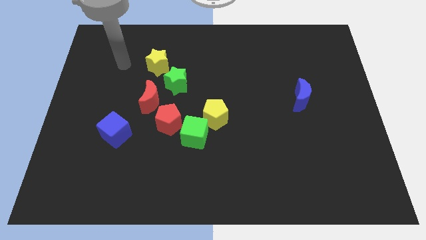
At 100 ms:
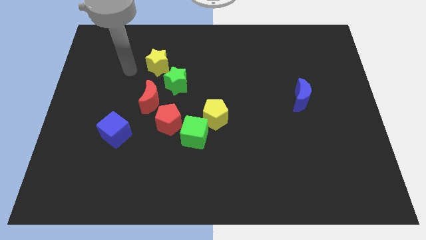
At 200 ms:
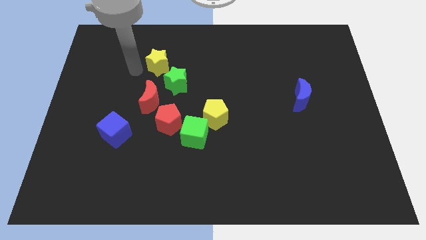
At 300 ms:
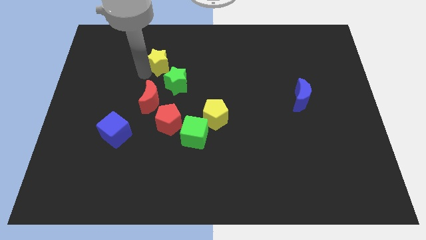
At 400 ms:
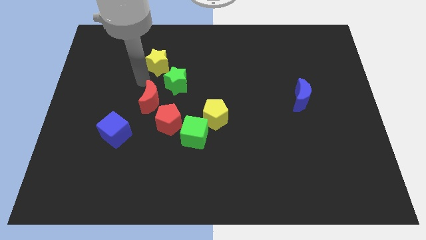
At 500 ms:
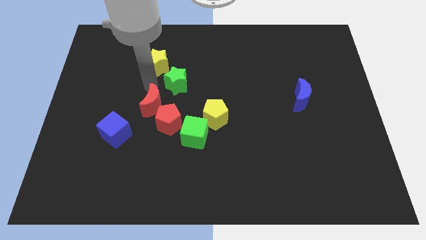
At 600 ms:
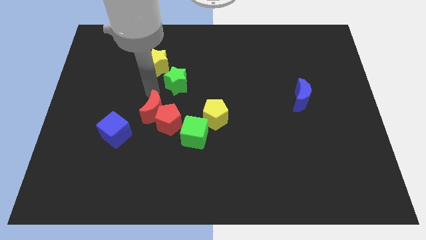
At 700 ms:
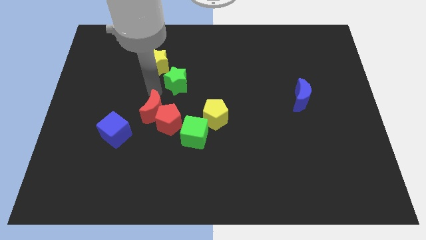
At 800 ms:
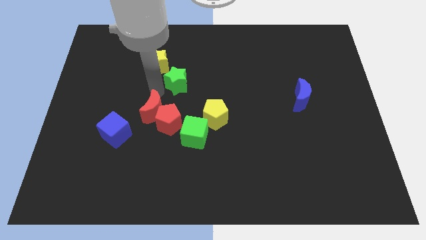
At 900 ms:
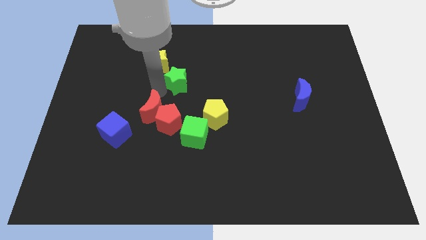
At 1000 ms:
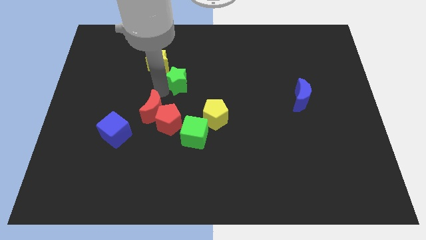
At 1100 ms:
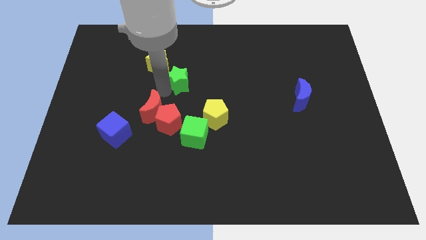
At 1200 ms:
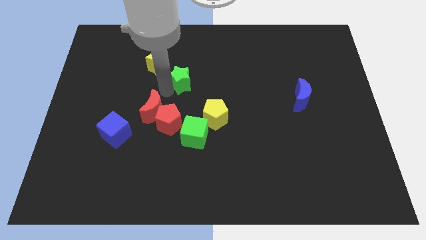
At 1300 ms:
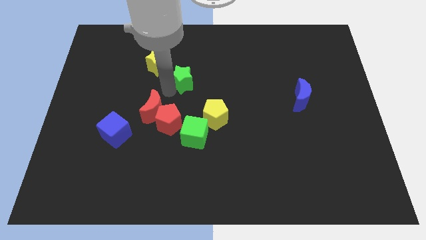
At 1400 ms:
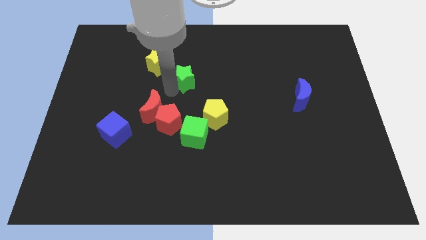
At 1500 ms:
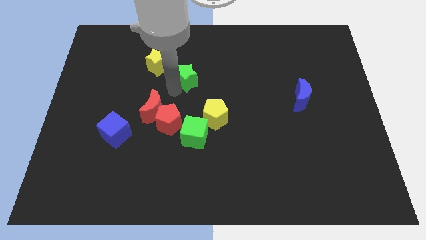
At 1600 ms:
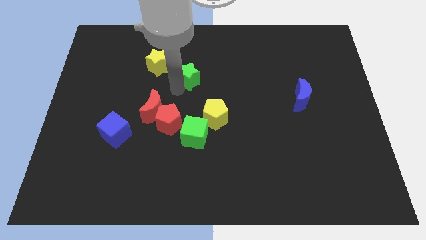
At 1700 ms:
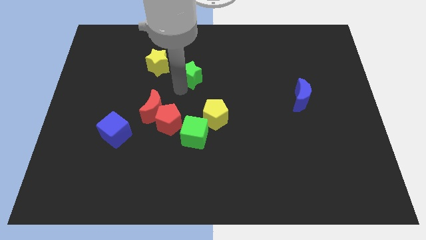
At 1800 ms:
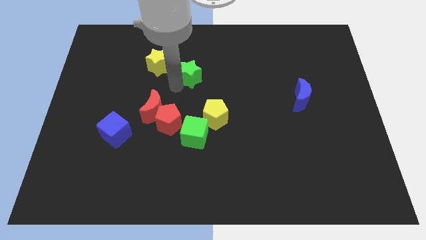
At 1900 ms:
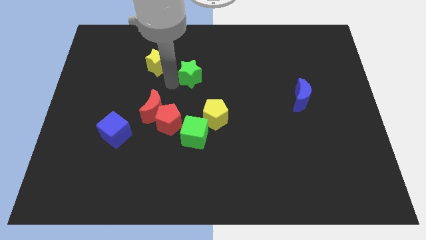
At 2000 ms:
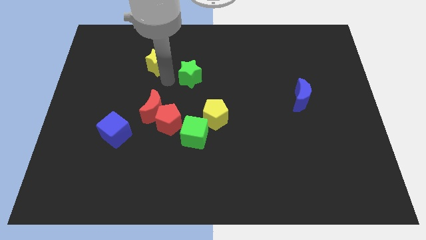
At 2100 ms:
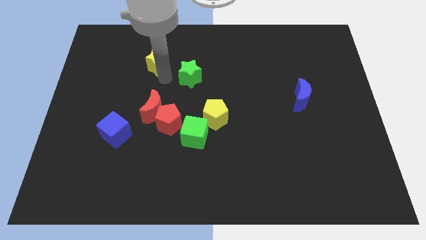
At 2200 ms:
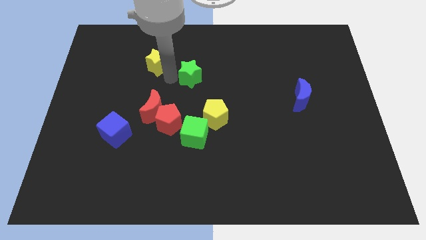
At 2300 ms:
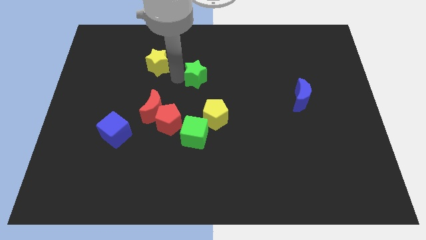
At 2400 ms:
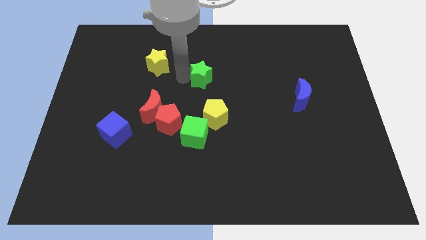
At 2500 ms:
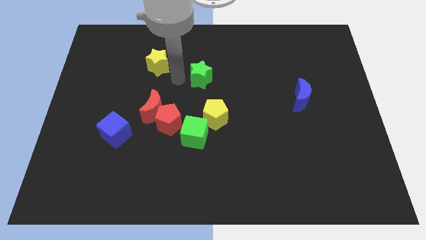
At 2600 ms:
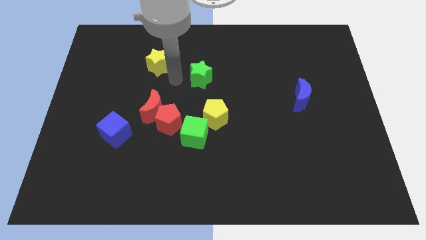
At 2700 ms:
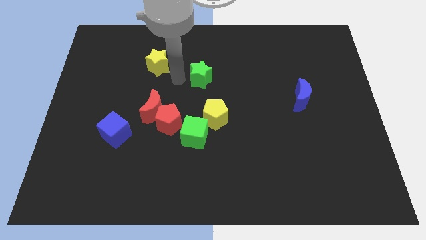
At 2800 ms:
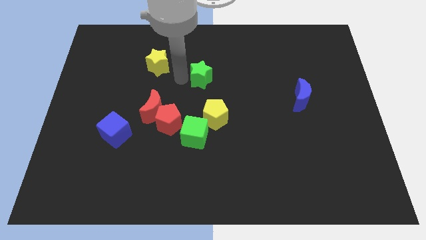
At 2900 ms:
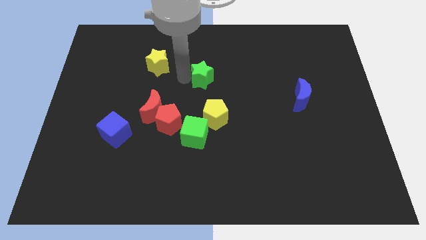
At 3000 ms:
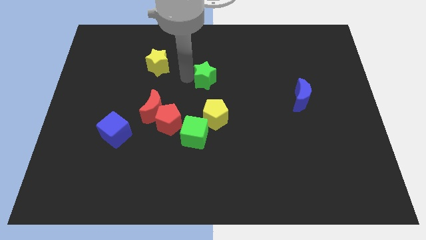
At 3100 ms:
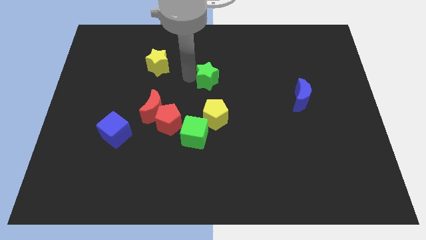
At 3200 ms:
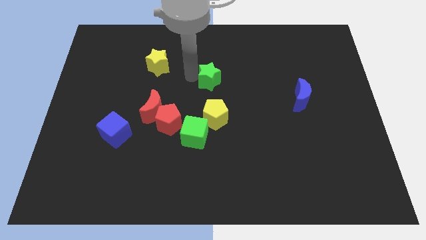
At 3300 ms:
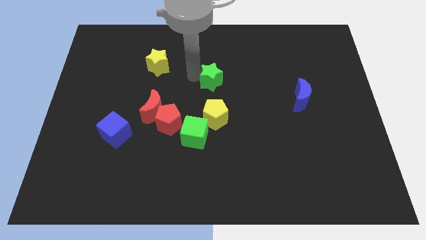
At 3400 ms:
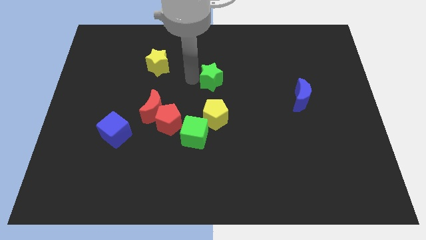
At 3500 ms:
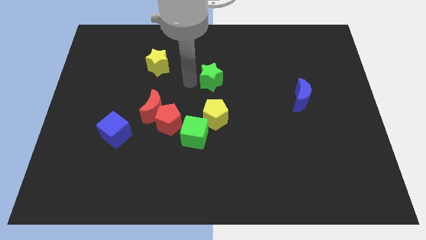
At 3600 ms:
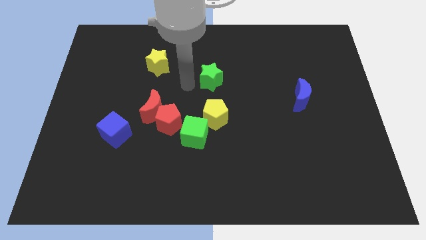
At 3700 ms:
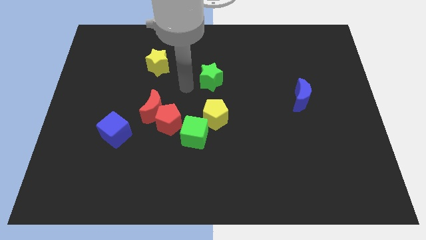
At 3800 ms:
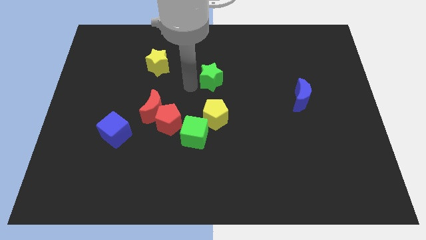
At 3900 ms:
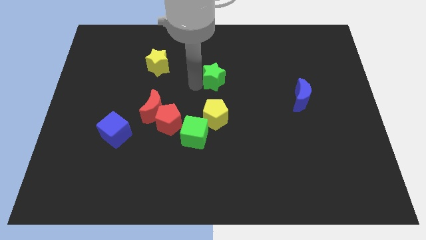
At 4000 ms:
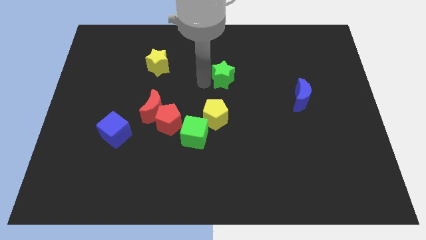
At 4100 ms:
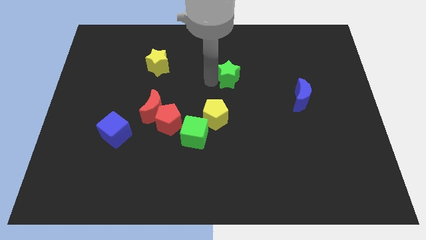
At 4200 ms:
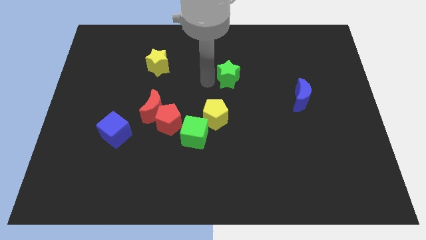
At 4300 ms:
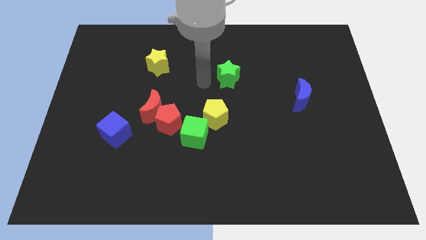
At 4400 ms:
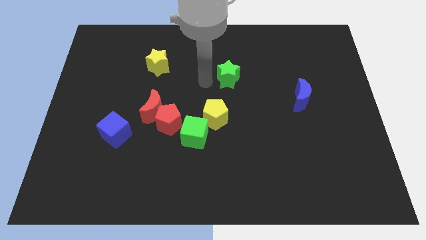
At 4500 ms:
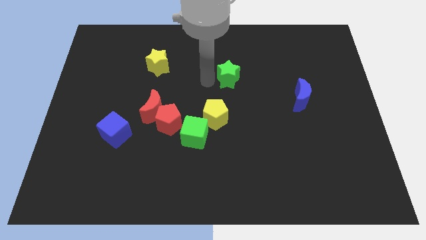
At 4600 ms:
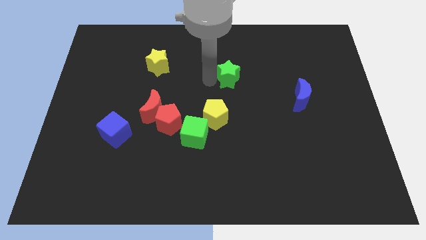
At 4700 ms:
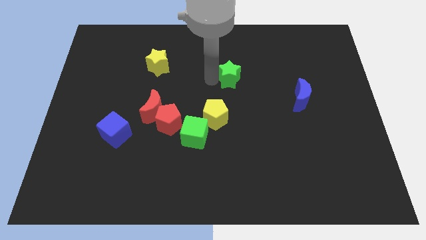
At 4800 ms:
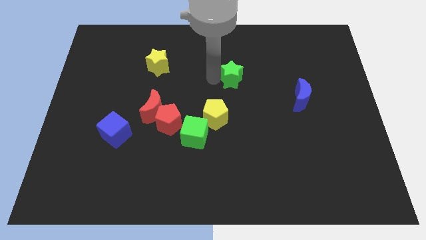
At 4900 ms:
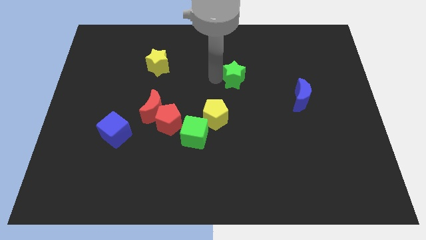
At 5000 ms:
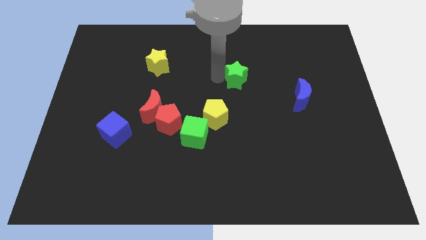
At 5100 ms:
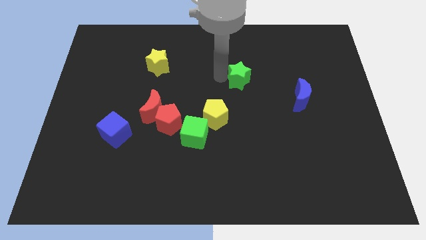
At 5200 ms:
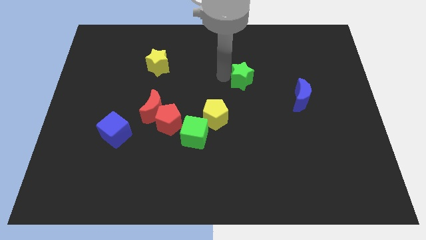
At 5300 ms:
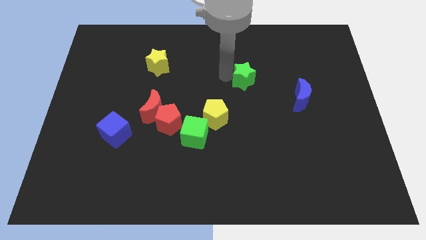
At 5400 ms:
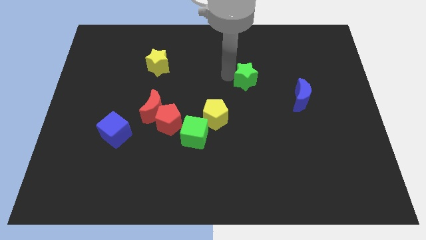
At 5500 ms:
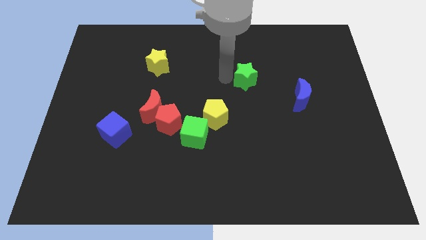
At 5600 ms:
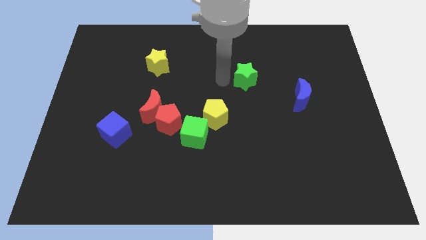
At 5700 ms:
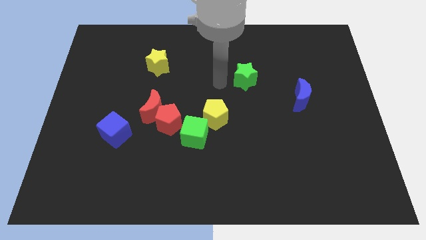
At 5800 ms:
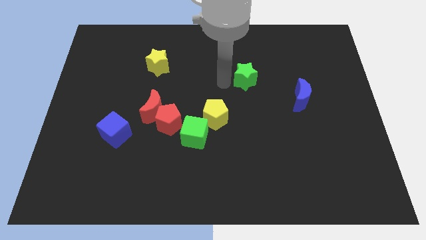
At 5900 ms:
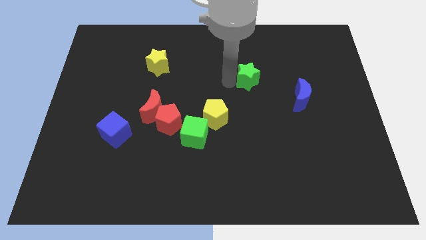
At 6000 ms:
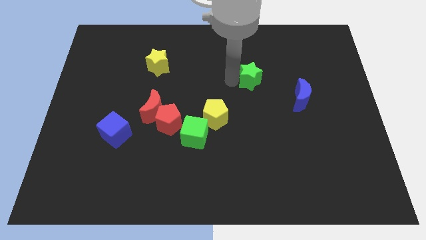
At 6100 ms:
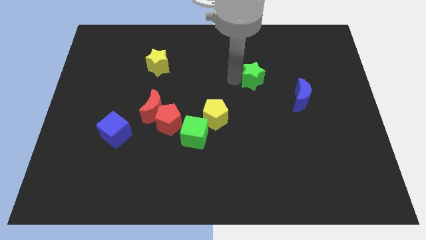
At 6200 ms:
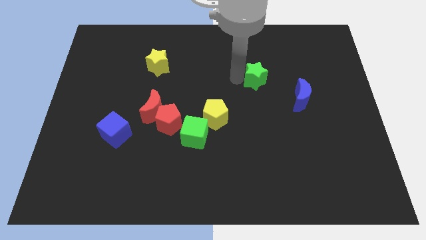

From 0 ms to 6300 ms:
slide the green star to the top left side of the blue moon
